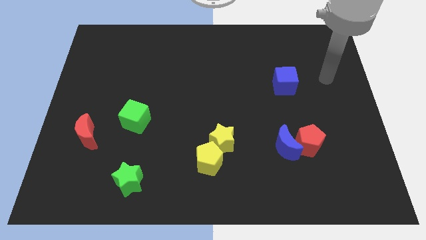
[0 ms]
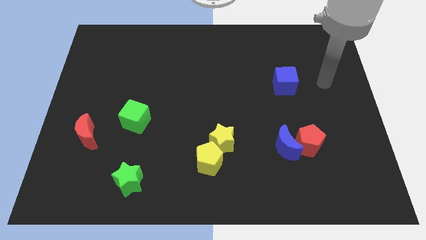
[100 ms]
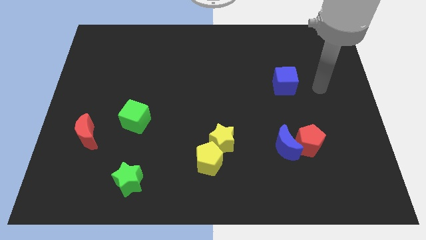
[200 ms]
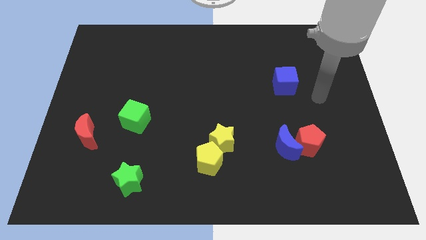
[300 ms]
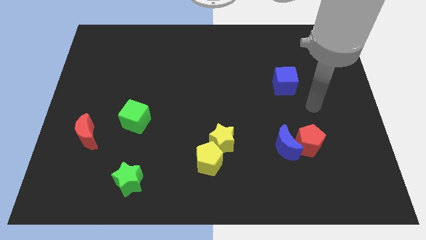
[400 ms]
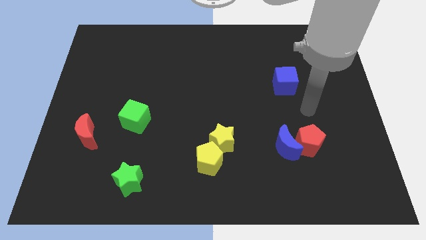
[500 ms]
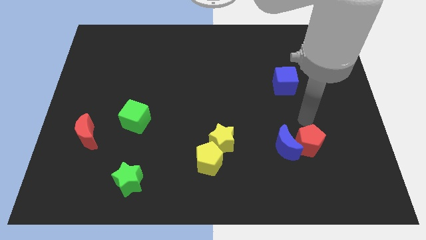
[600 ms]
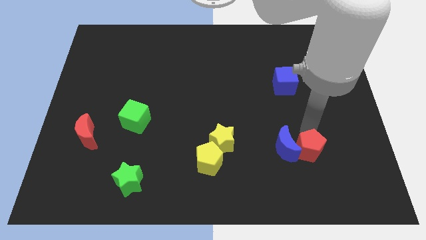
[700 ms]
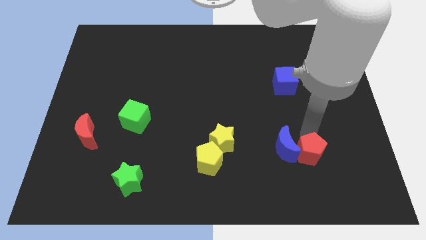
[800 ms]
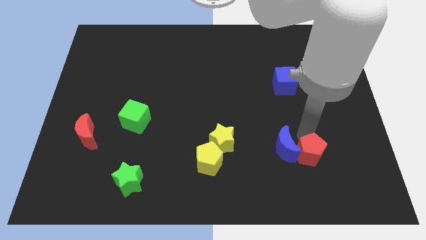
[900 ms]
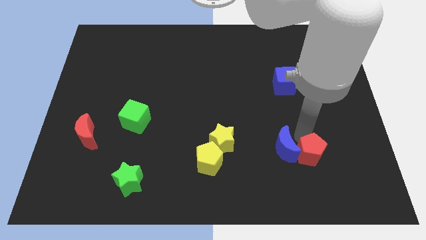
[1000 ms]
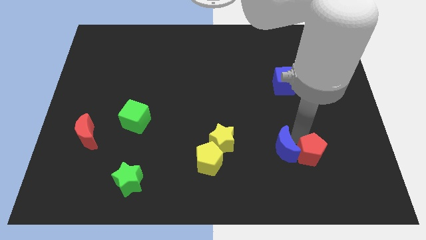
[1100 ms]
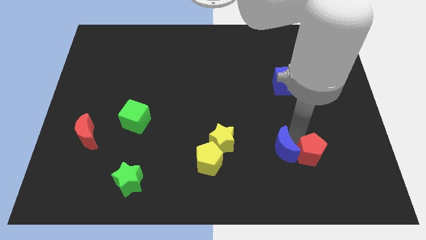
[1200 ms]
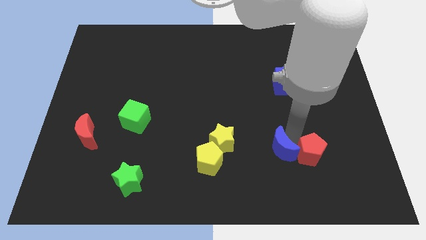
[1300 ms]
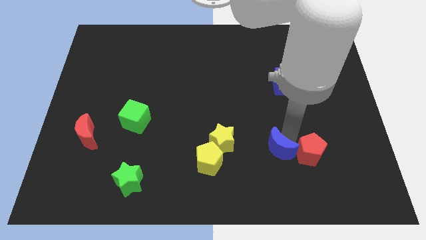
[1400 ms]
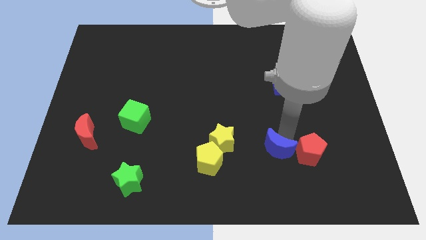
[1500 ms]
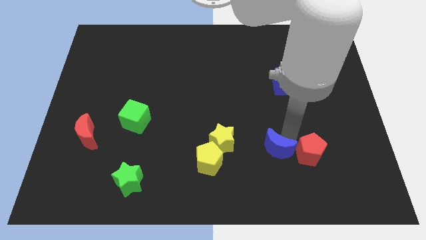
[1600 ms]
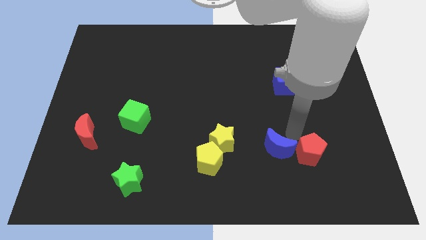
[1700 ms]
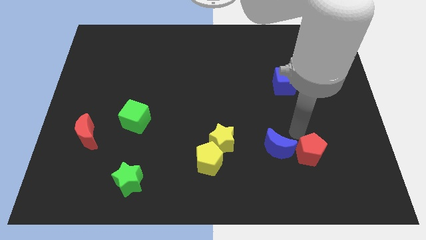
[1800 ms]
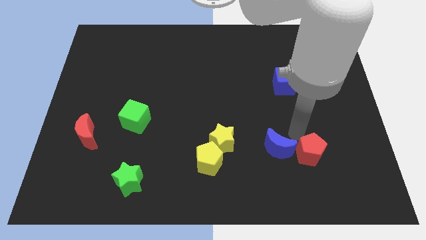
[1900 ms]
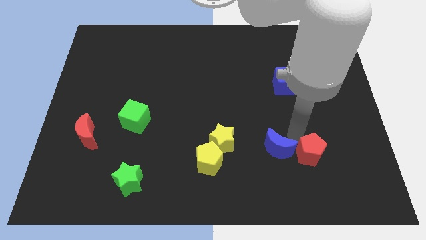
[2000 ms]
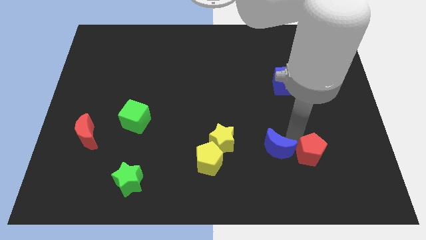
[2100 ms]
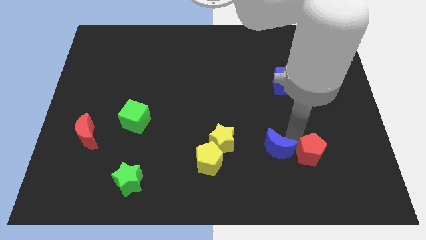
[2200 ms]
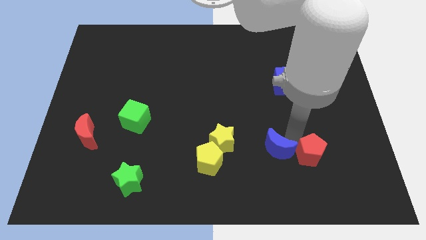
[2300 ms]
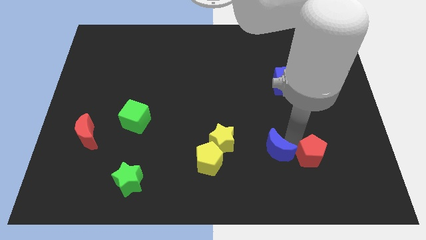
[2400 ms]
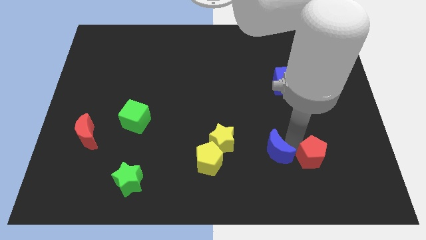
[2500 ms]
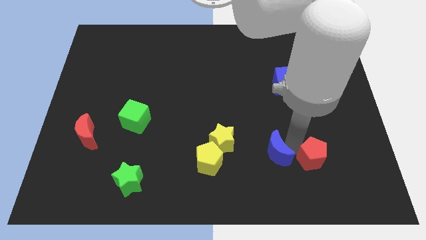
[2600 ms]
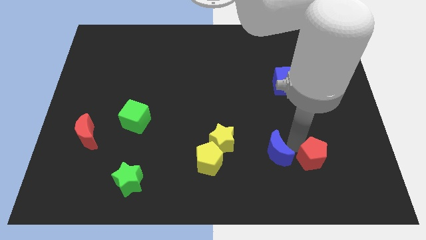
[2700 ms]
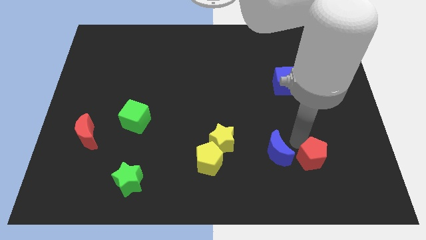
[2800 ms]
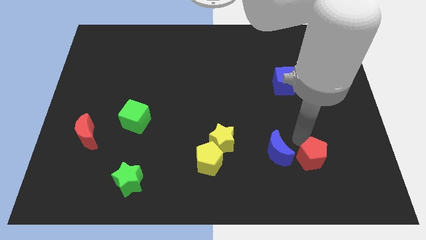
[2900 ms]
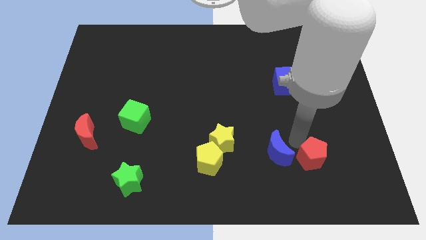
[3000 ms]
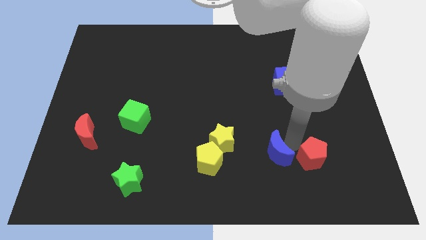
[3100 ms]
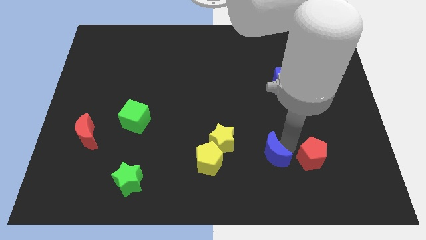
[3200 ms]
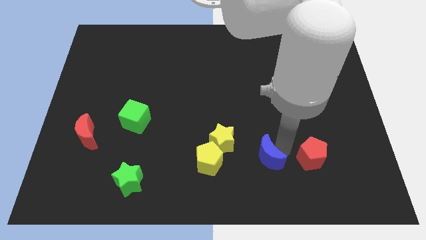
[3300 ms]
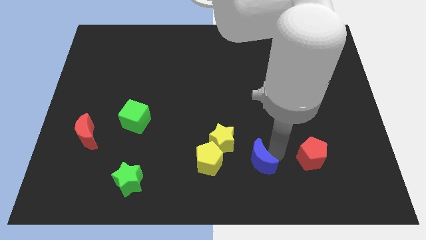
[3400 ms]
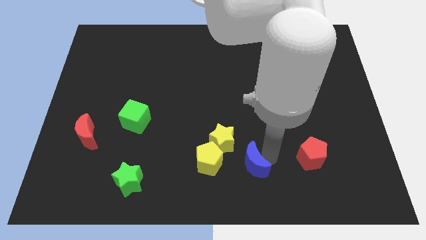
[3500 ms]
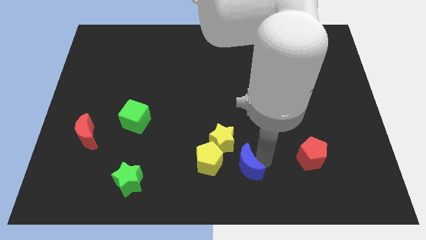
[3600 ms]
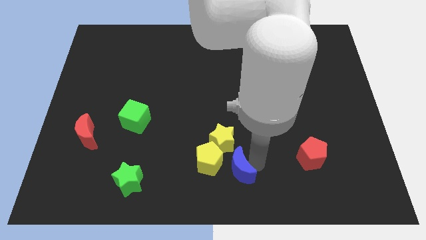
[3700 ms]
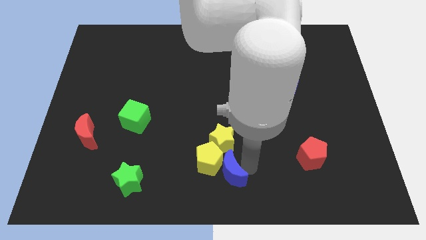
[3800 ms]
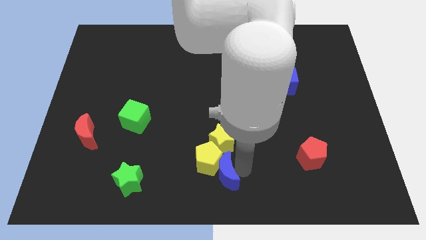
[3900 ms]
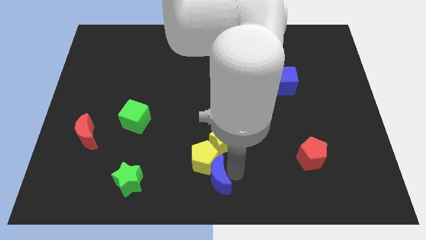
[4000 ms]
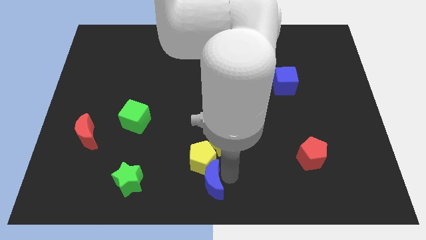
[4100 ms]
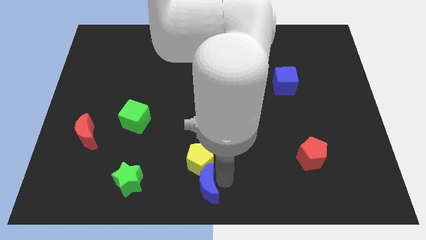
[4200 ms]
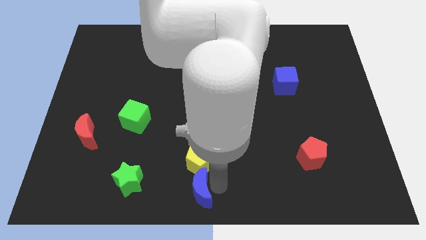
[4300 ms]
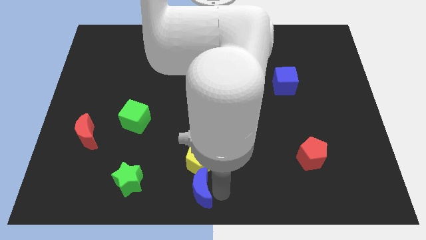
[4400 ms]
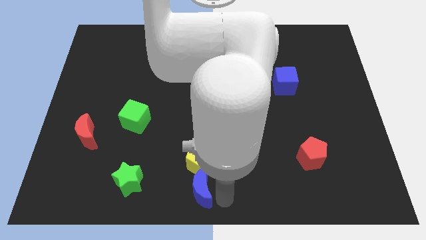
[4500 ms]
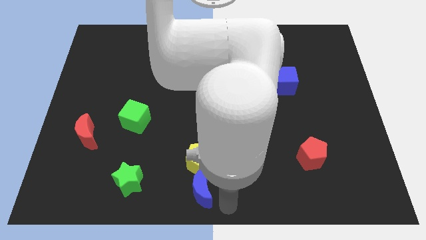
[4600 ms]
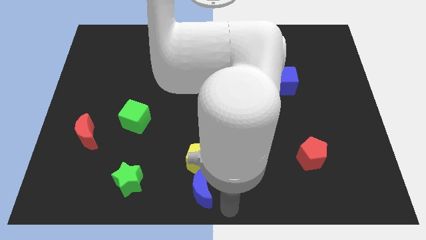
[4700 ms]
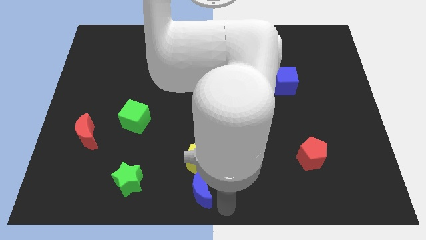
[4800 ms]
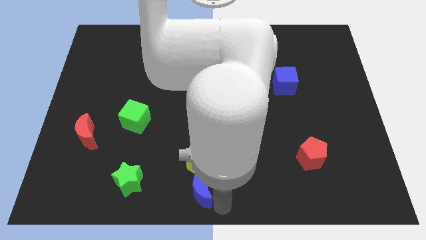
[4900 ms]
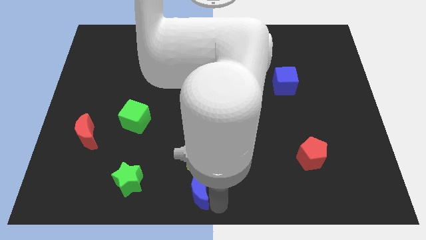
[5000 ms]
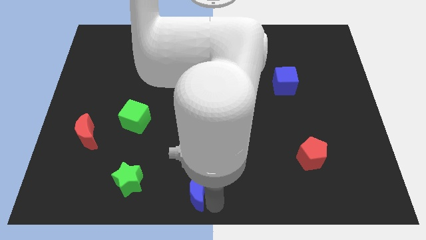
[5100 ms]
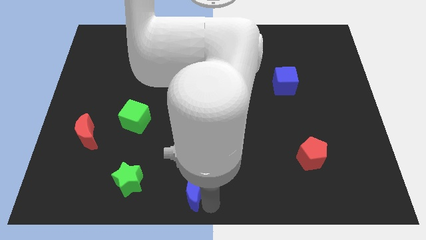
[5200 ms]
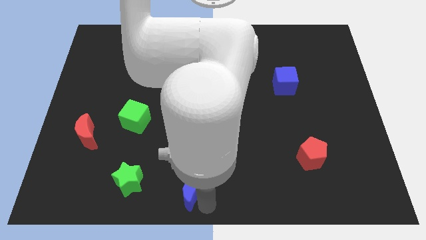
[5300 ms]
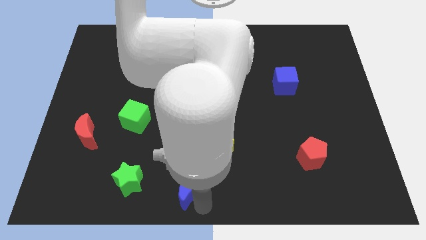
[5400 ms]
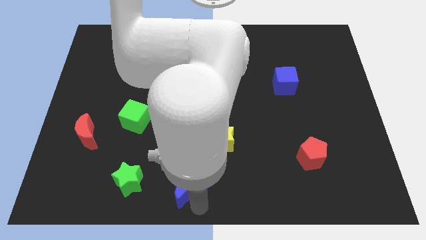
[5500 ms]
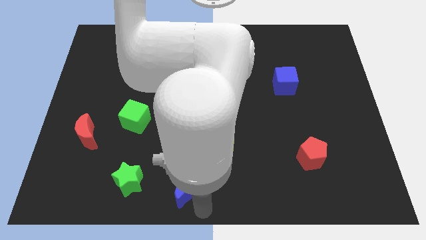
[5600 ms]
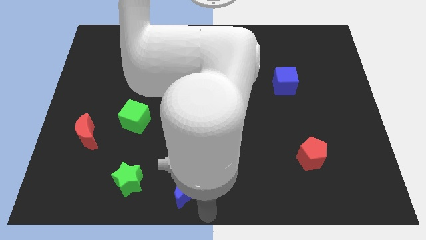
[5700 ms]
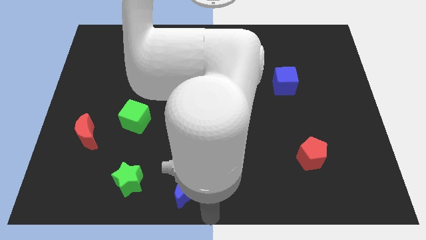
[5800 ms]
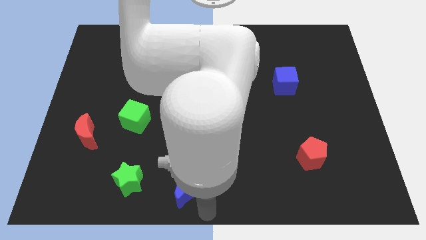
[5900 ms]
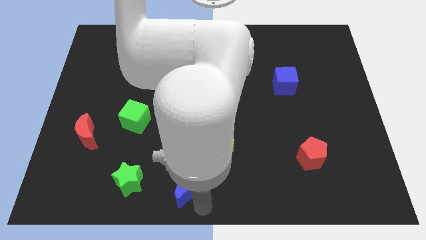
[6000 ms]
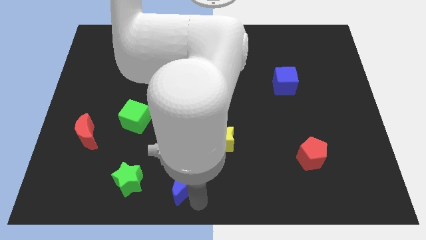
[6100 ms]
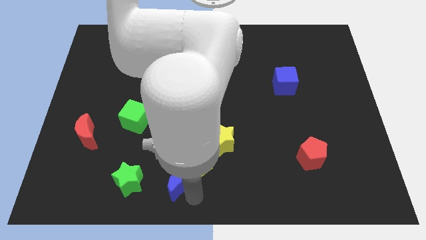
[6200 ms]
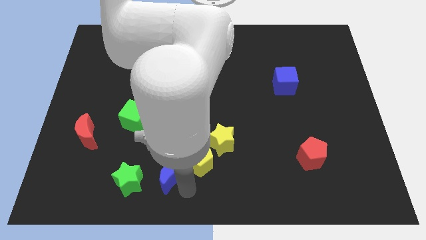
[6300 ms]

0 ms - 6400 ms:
slide the blue moon to the left

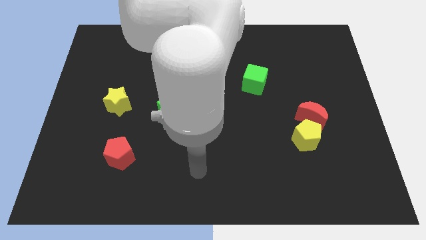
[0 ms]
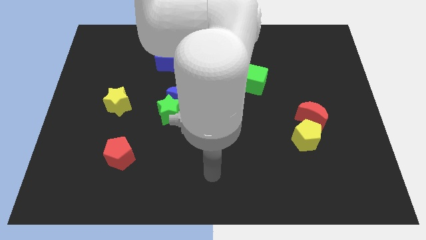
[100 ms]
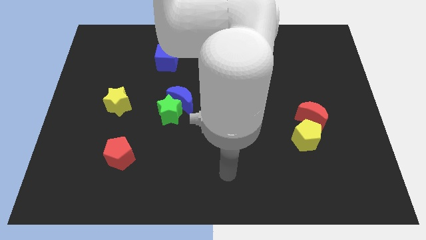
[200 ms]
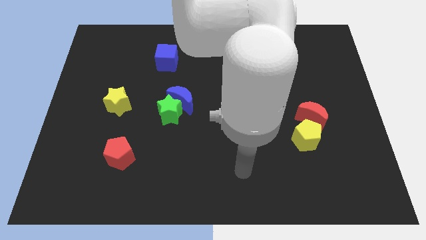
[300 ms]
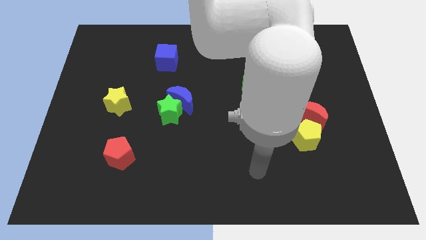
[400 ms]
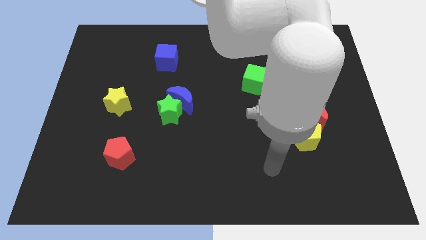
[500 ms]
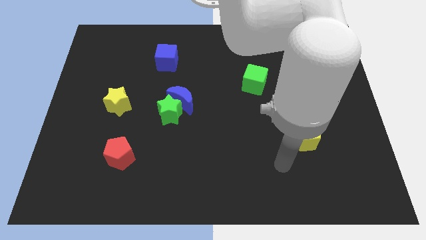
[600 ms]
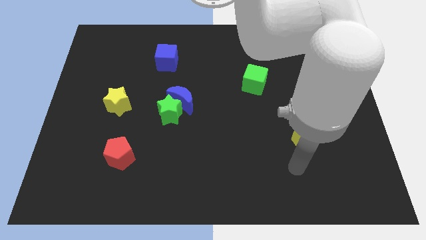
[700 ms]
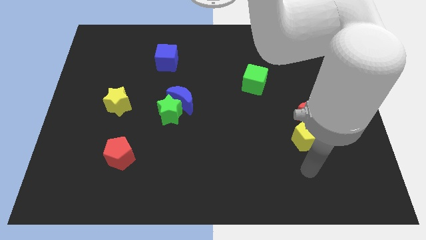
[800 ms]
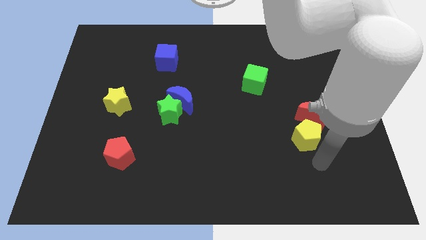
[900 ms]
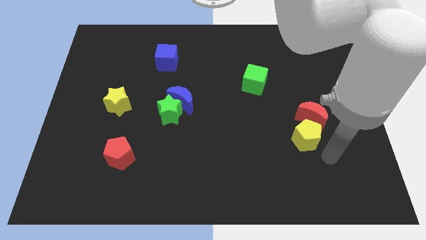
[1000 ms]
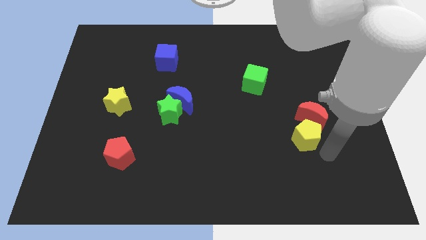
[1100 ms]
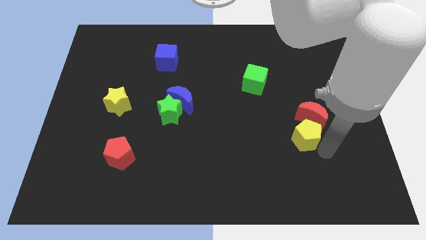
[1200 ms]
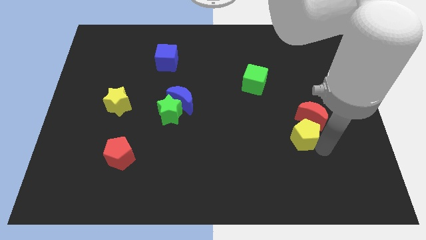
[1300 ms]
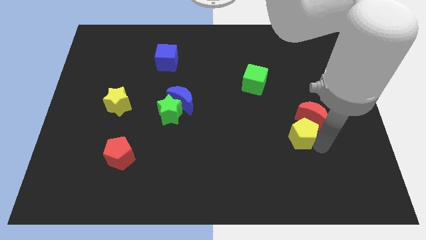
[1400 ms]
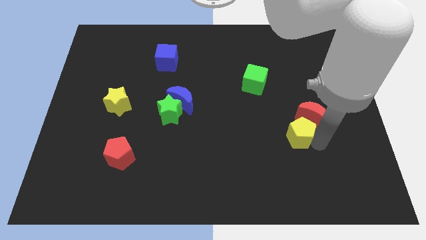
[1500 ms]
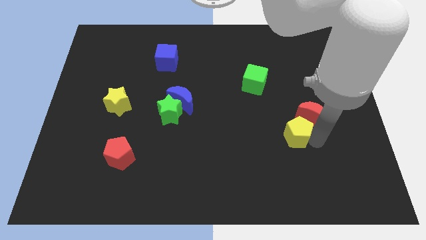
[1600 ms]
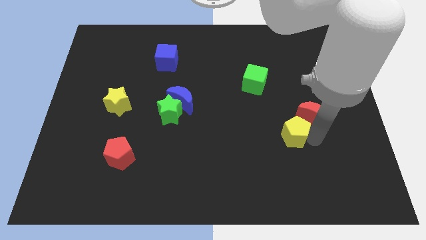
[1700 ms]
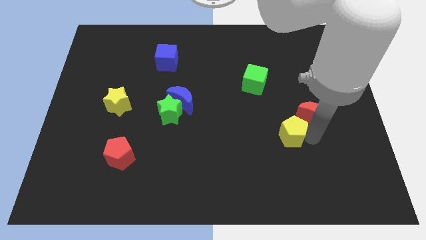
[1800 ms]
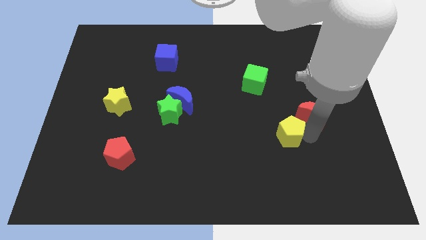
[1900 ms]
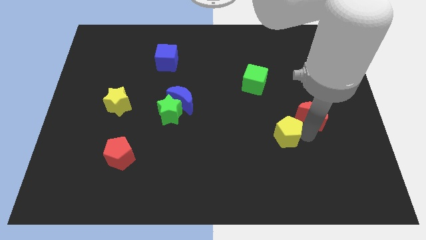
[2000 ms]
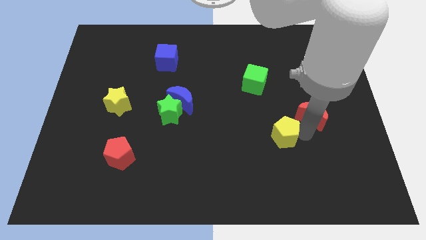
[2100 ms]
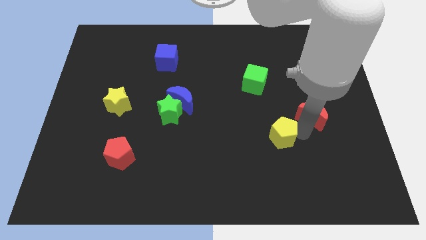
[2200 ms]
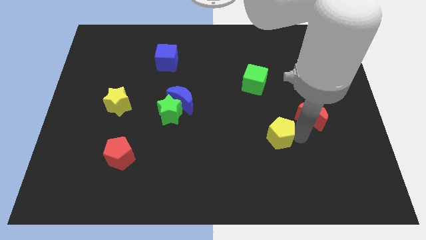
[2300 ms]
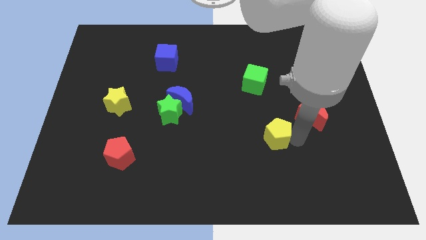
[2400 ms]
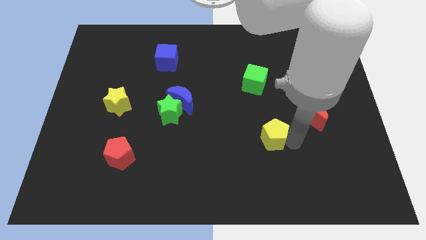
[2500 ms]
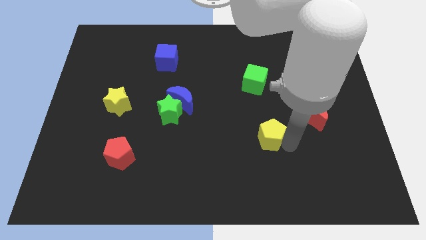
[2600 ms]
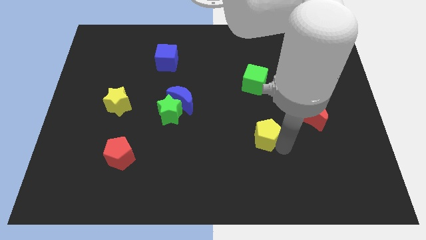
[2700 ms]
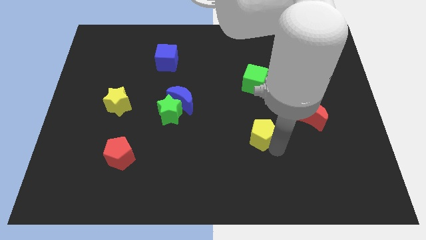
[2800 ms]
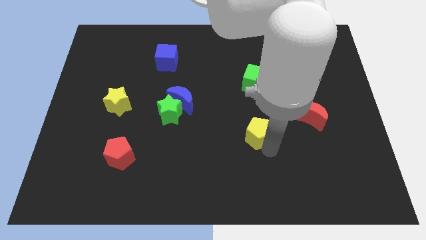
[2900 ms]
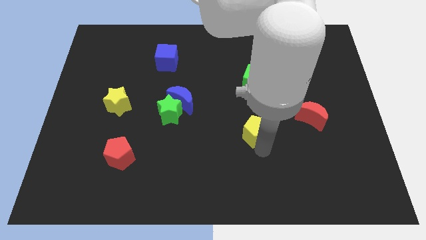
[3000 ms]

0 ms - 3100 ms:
slightly slide the yellow pentagon upwards and to the left
